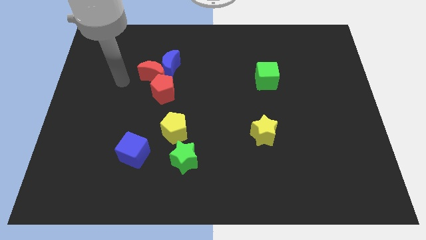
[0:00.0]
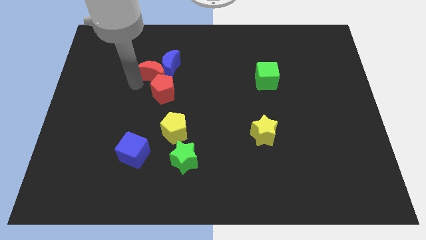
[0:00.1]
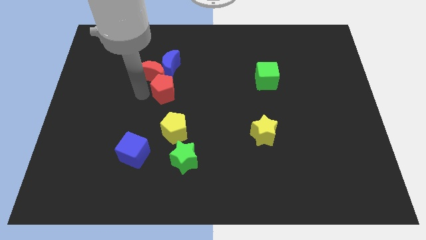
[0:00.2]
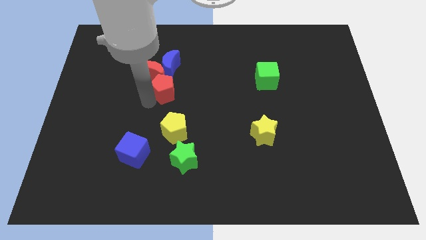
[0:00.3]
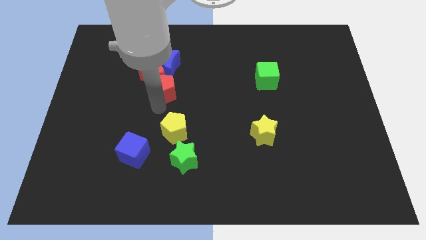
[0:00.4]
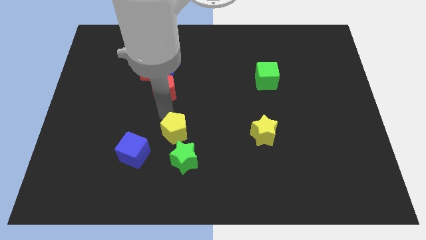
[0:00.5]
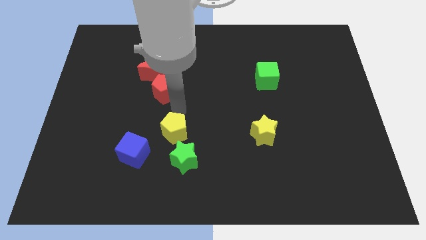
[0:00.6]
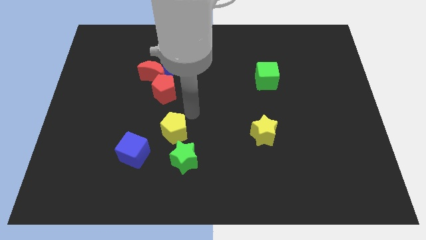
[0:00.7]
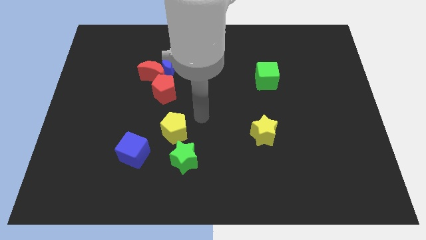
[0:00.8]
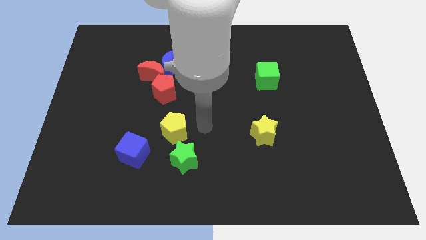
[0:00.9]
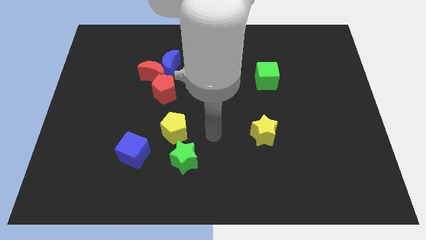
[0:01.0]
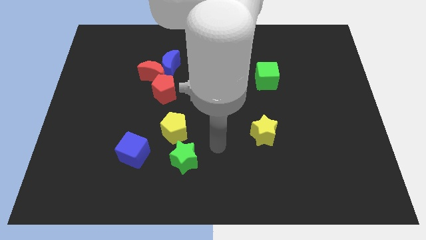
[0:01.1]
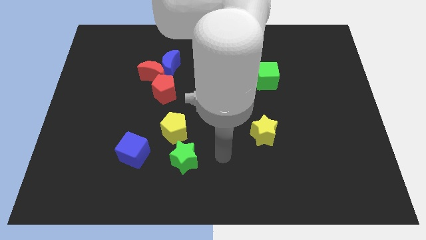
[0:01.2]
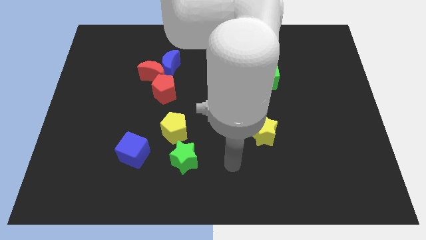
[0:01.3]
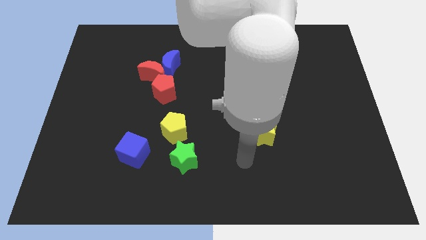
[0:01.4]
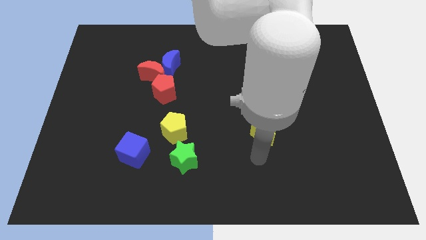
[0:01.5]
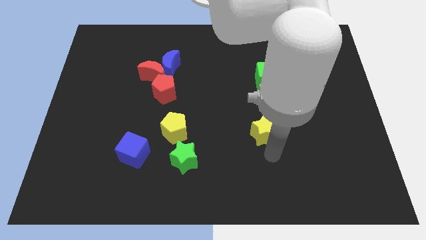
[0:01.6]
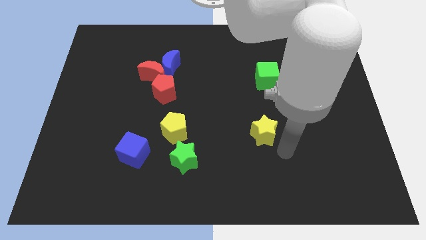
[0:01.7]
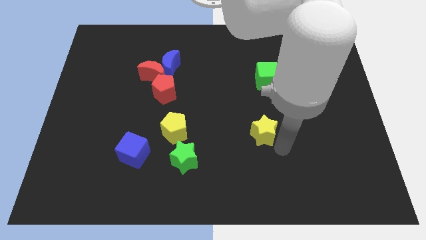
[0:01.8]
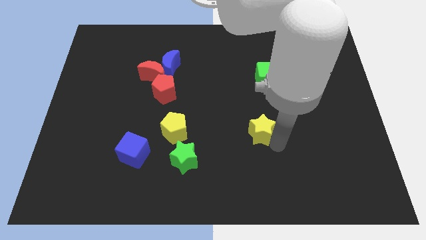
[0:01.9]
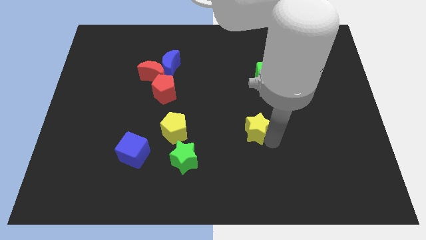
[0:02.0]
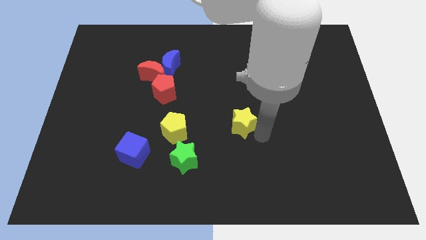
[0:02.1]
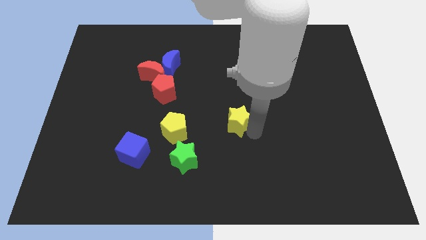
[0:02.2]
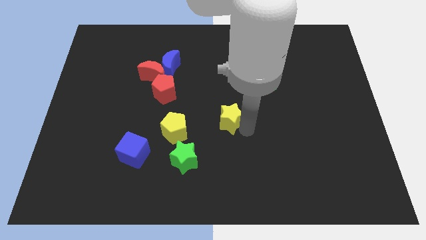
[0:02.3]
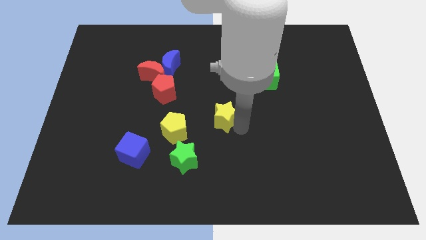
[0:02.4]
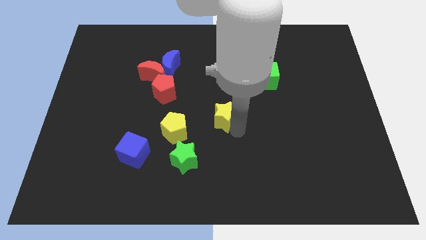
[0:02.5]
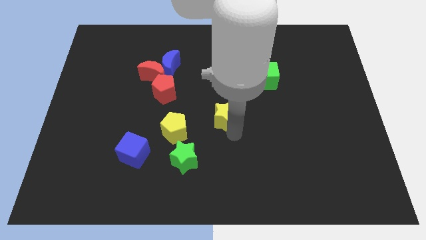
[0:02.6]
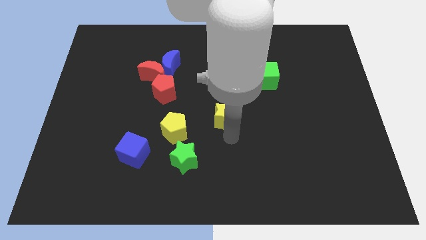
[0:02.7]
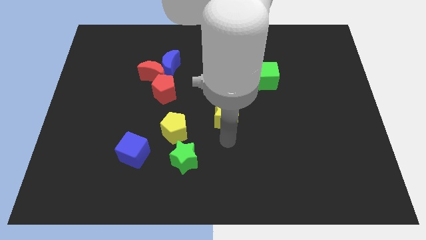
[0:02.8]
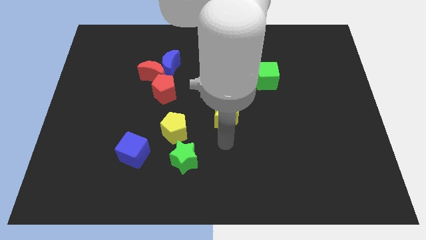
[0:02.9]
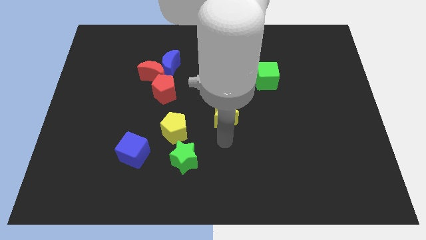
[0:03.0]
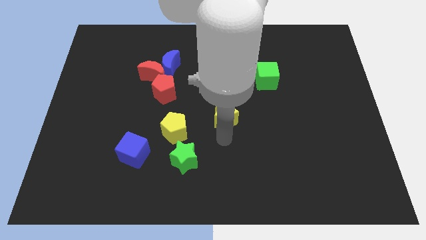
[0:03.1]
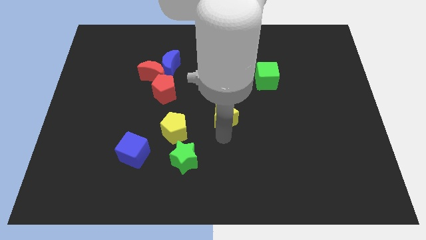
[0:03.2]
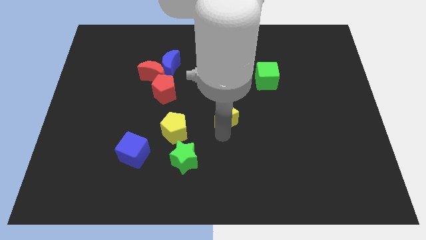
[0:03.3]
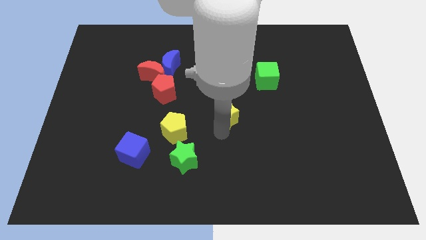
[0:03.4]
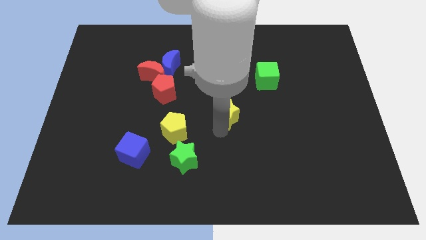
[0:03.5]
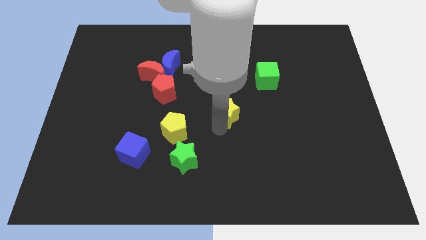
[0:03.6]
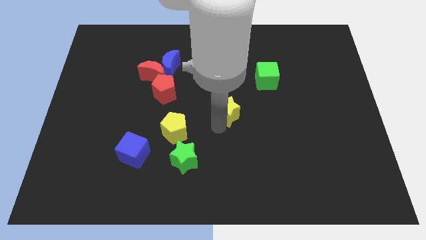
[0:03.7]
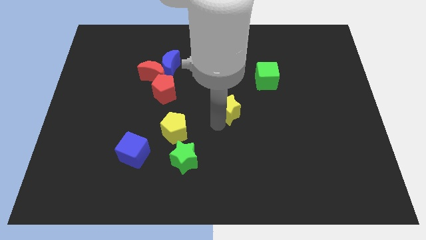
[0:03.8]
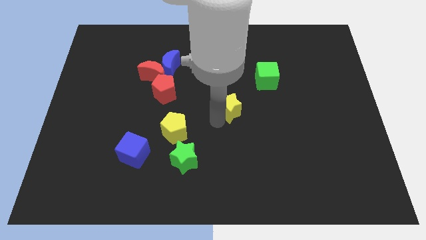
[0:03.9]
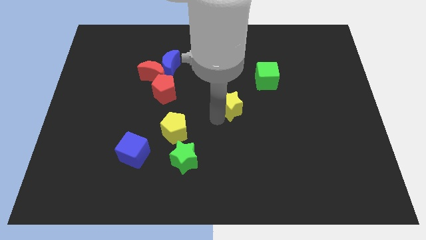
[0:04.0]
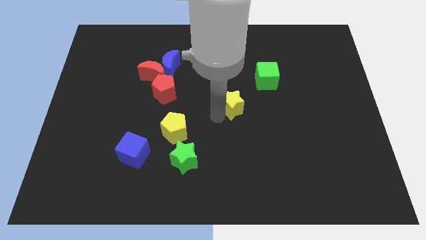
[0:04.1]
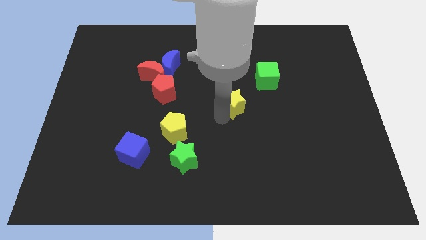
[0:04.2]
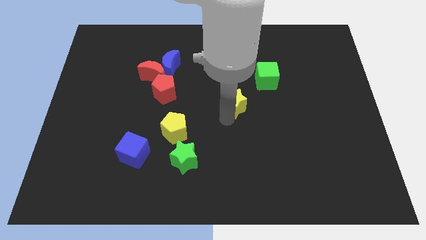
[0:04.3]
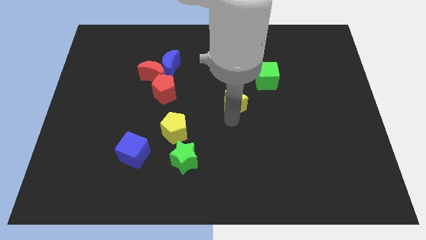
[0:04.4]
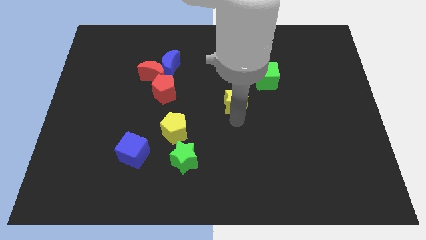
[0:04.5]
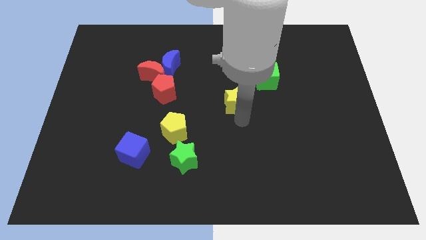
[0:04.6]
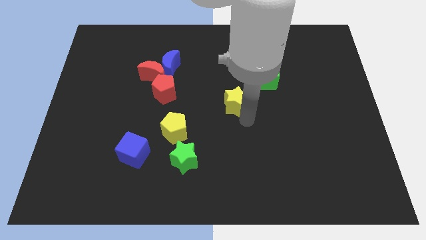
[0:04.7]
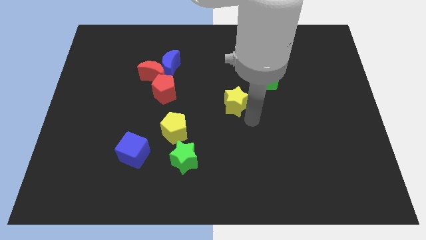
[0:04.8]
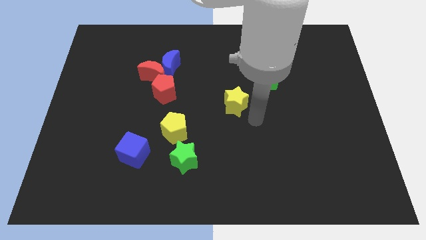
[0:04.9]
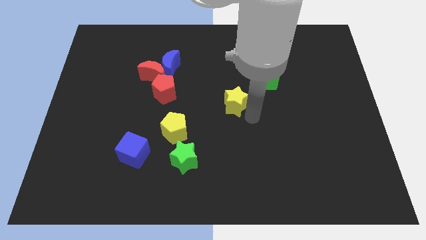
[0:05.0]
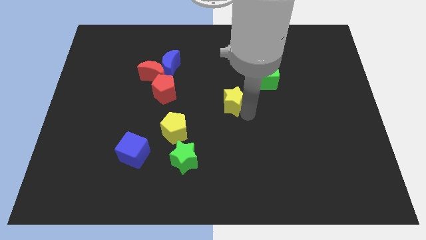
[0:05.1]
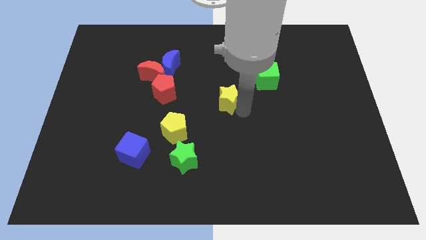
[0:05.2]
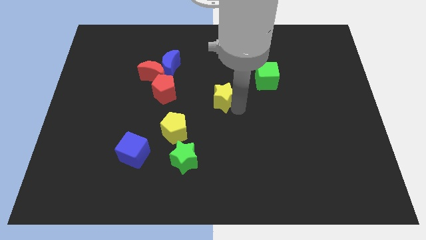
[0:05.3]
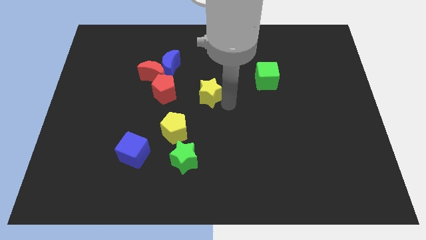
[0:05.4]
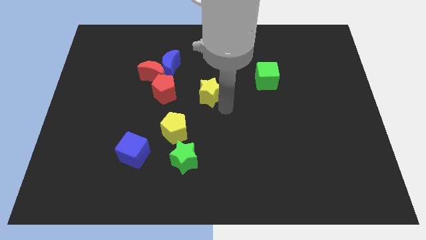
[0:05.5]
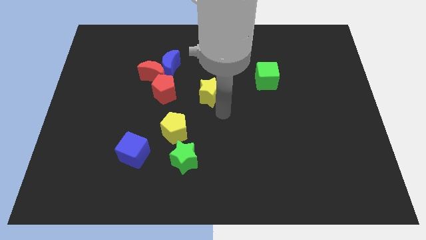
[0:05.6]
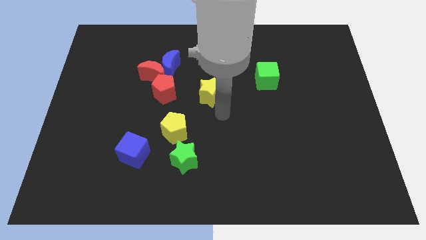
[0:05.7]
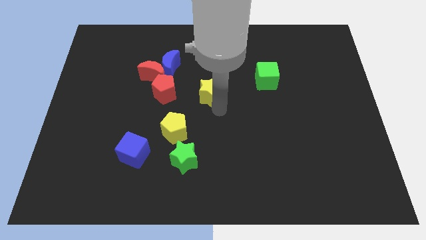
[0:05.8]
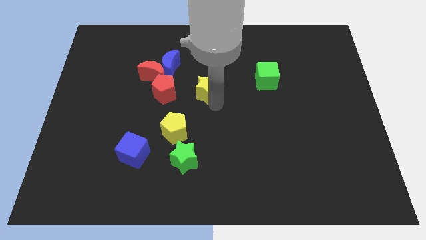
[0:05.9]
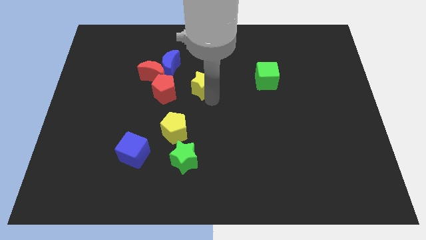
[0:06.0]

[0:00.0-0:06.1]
push the yellow star right of the red moon

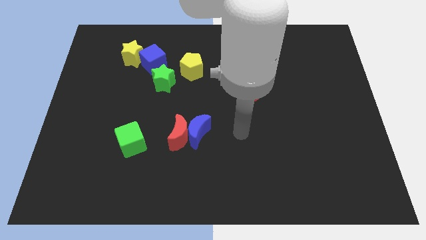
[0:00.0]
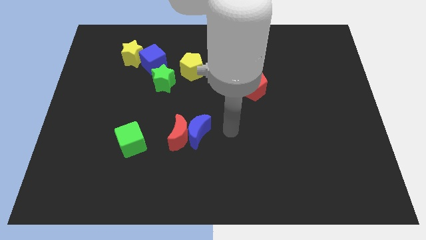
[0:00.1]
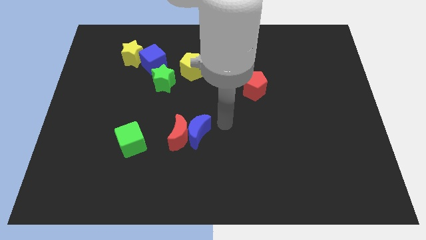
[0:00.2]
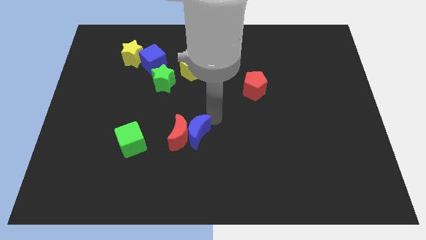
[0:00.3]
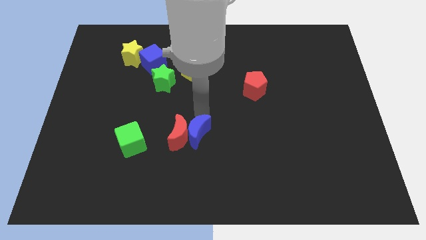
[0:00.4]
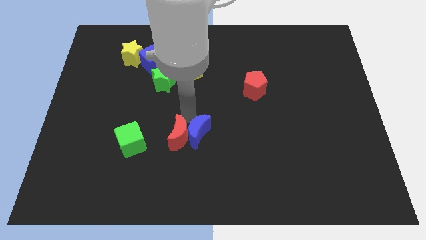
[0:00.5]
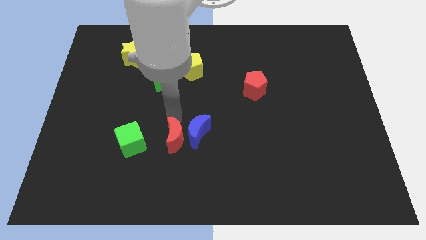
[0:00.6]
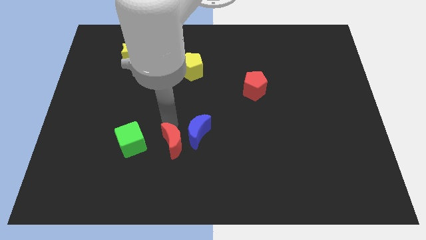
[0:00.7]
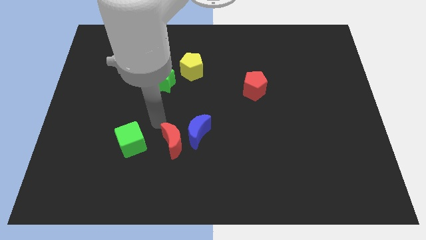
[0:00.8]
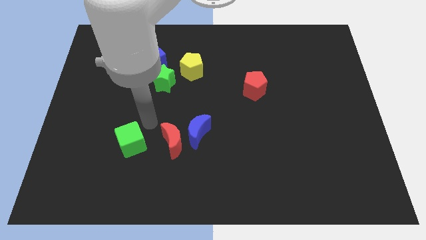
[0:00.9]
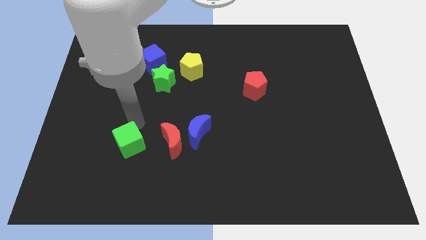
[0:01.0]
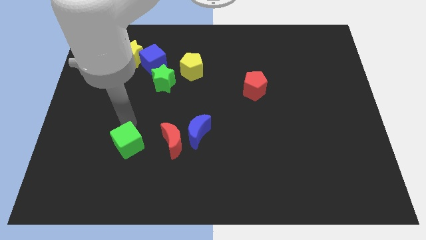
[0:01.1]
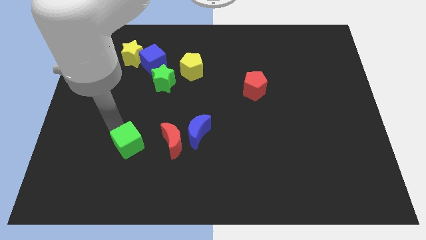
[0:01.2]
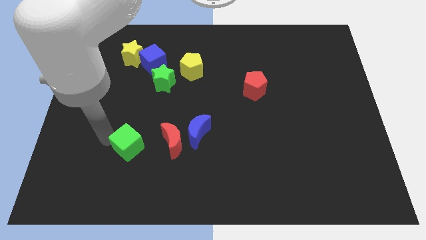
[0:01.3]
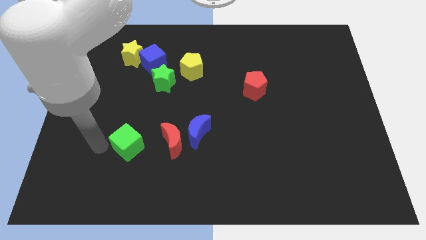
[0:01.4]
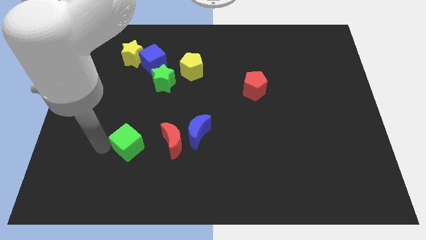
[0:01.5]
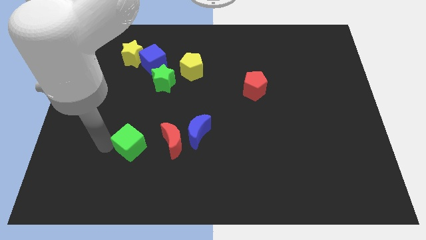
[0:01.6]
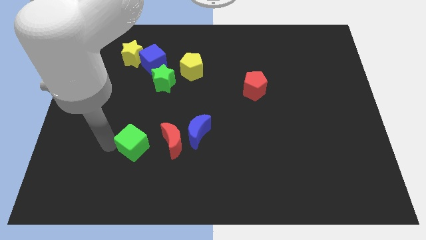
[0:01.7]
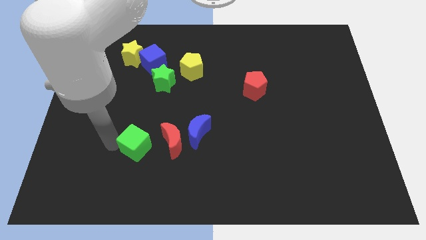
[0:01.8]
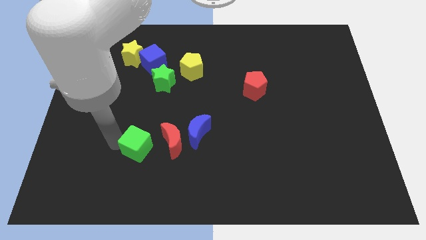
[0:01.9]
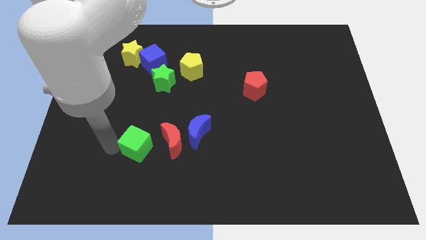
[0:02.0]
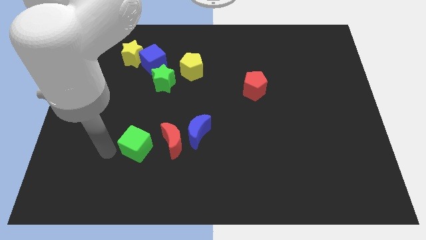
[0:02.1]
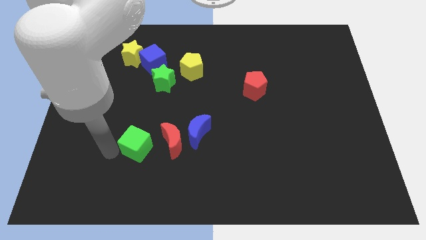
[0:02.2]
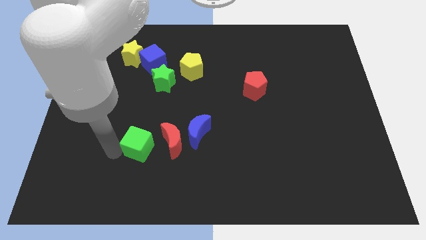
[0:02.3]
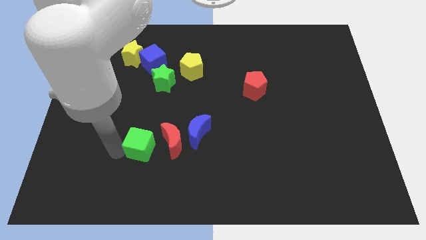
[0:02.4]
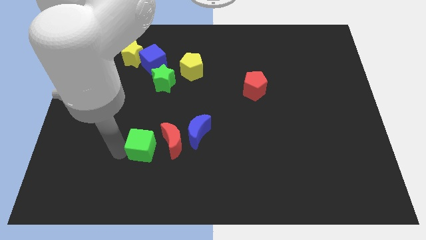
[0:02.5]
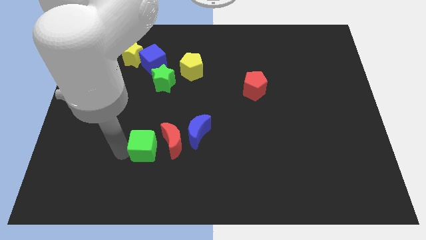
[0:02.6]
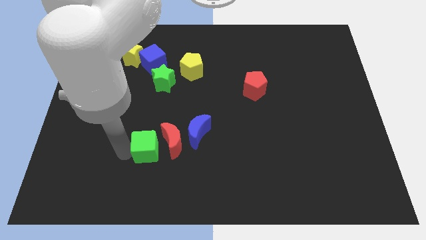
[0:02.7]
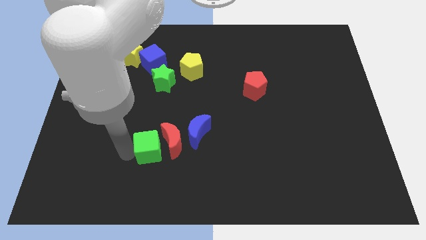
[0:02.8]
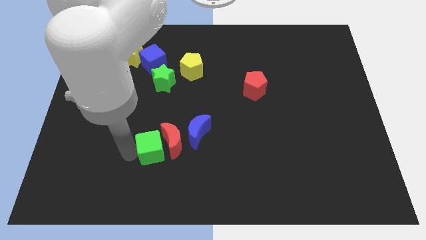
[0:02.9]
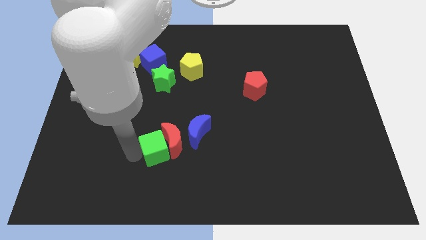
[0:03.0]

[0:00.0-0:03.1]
slide the green cube to the bottom side of the red moon
